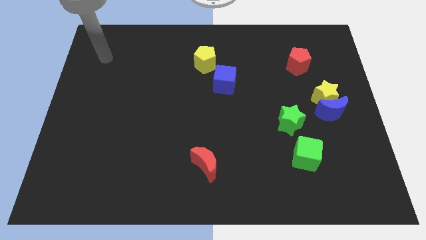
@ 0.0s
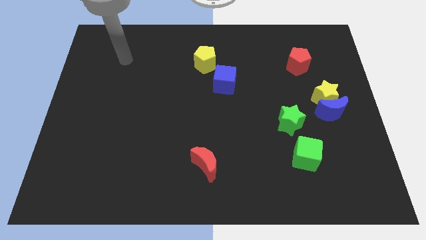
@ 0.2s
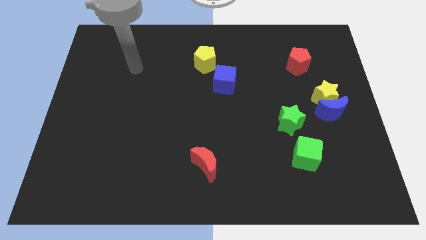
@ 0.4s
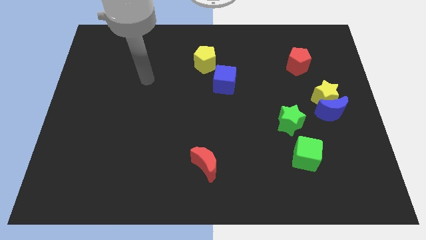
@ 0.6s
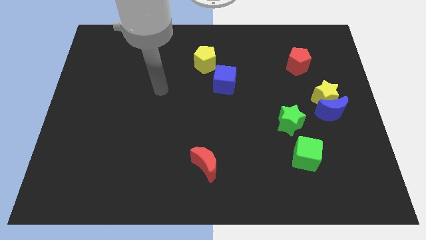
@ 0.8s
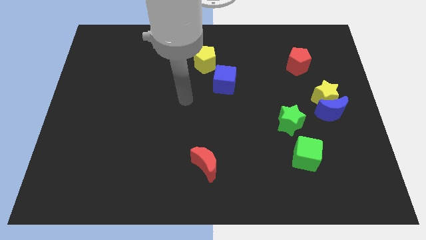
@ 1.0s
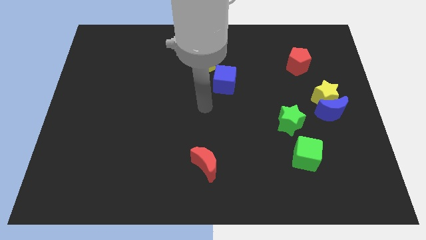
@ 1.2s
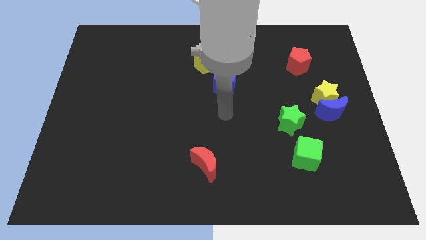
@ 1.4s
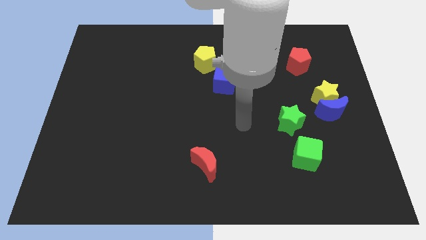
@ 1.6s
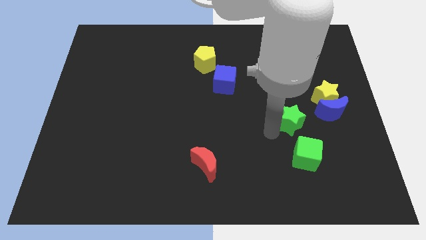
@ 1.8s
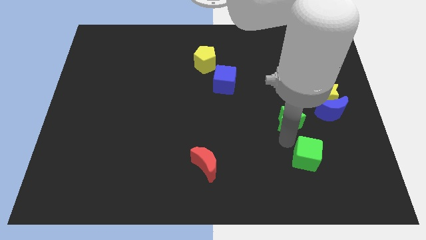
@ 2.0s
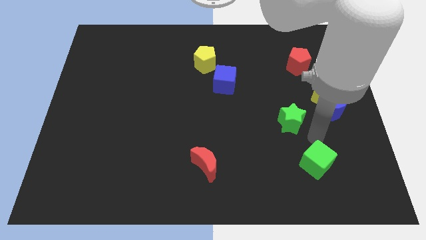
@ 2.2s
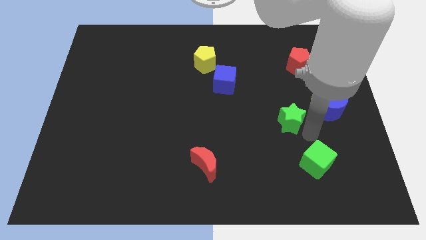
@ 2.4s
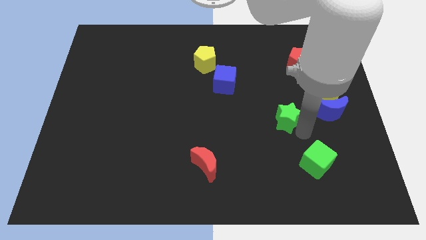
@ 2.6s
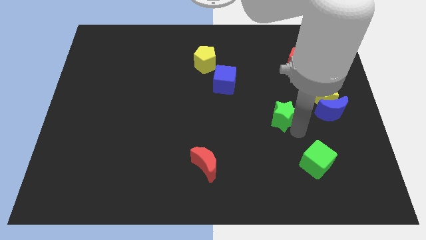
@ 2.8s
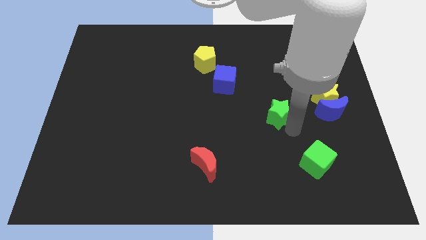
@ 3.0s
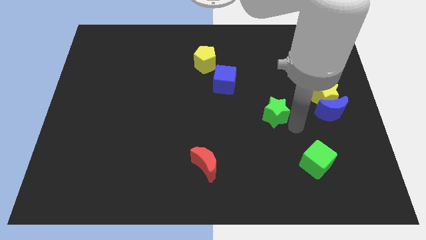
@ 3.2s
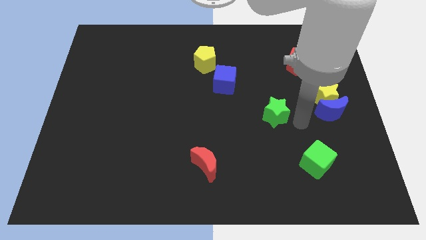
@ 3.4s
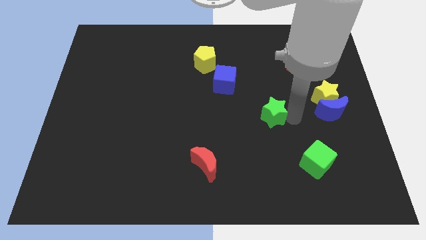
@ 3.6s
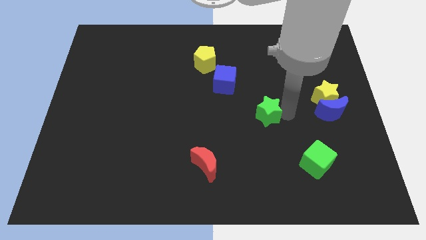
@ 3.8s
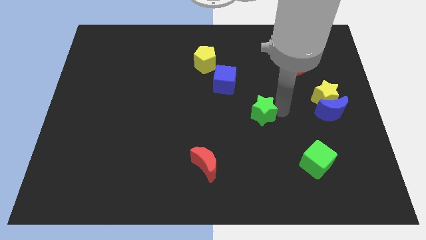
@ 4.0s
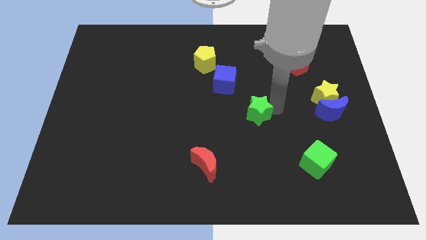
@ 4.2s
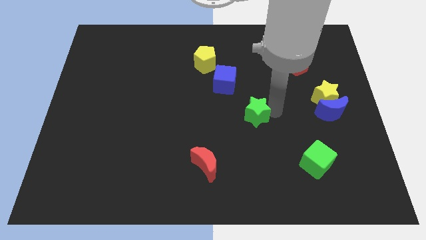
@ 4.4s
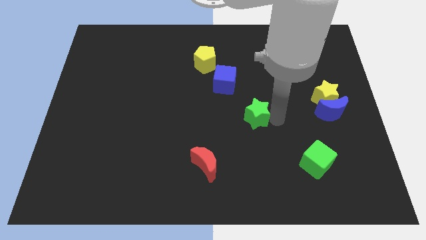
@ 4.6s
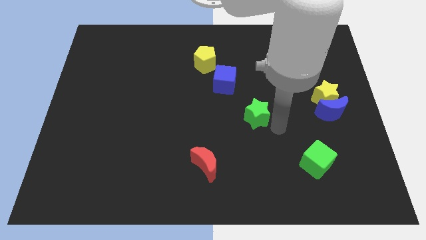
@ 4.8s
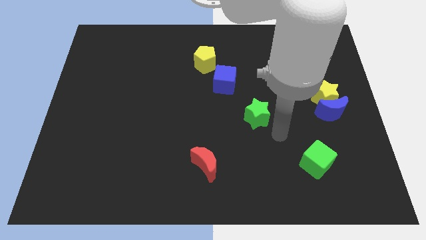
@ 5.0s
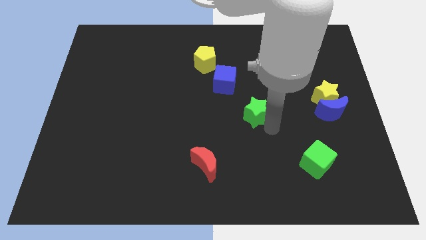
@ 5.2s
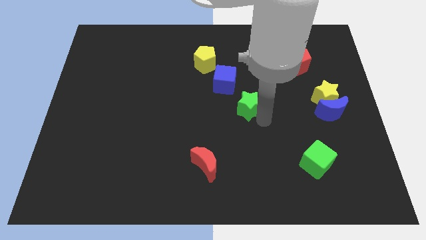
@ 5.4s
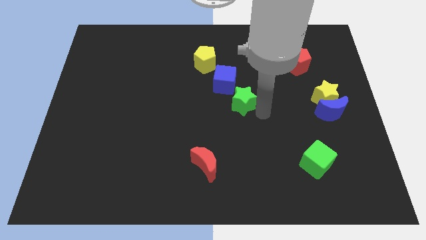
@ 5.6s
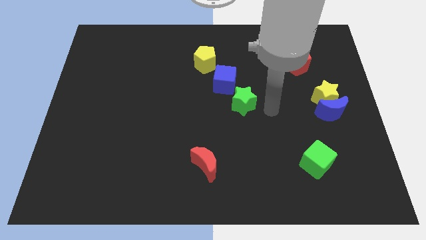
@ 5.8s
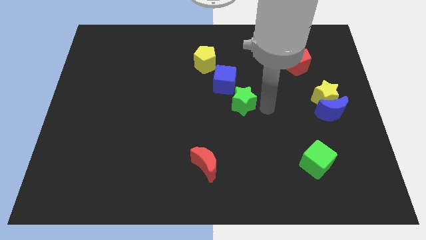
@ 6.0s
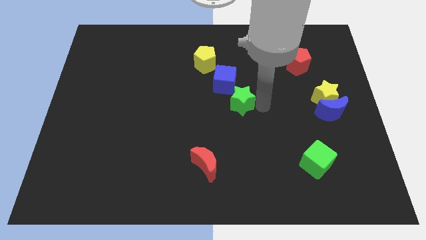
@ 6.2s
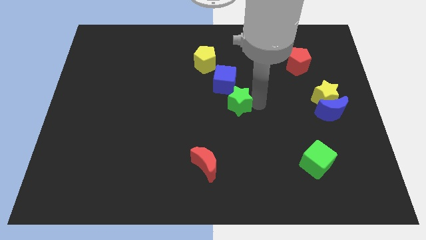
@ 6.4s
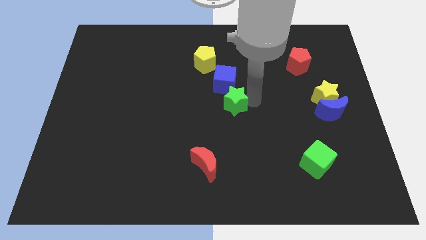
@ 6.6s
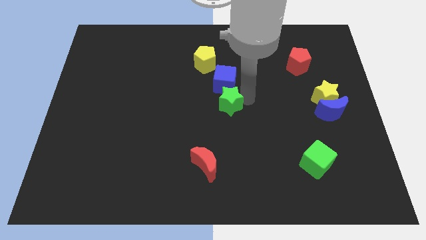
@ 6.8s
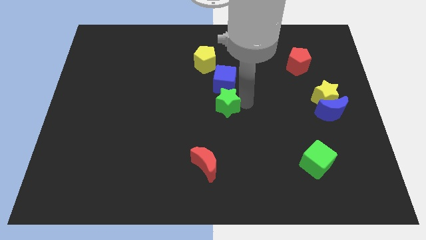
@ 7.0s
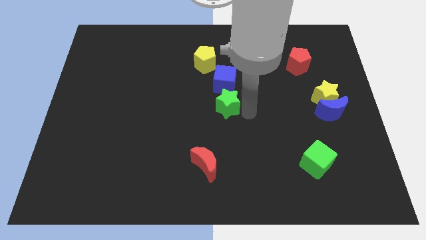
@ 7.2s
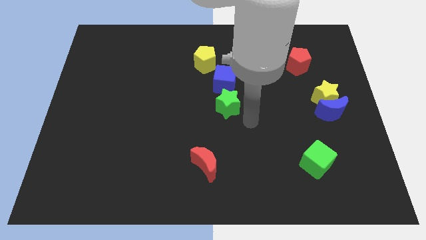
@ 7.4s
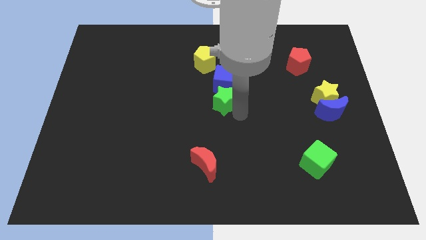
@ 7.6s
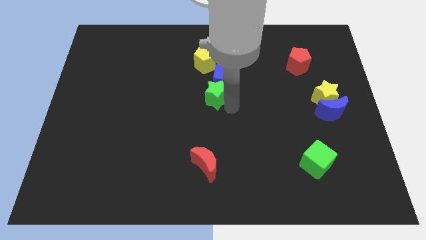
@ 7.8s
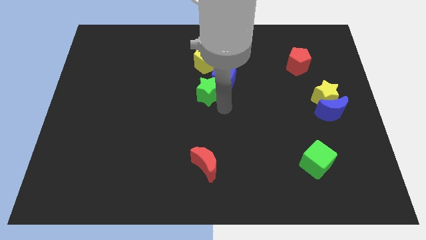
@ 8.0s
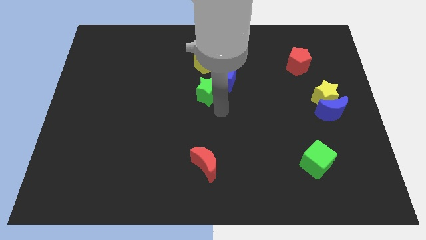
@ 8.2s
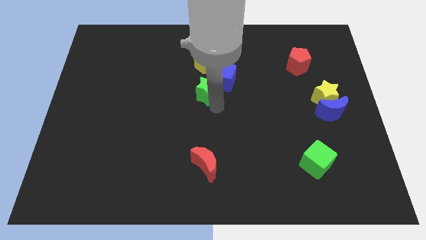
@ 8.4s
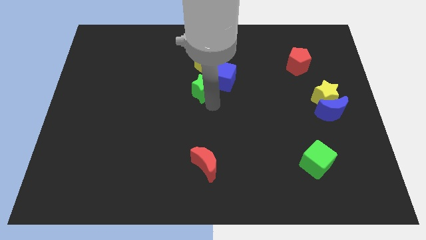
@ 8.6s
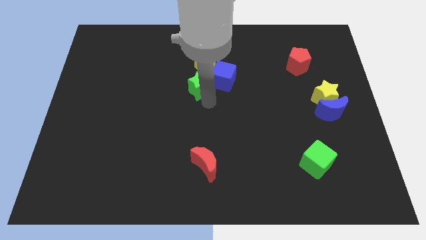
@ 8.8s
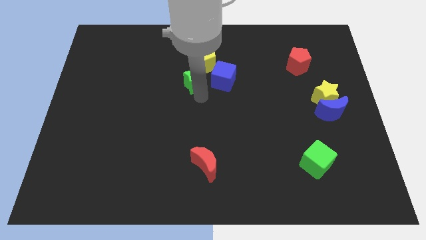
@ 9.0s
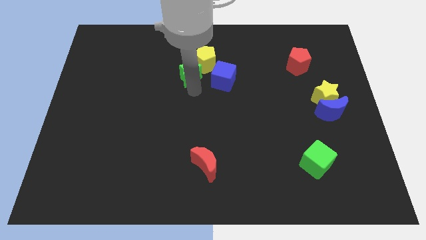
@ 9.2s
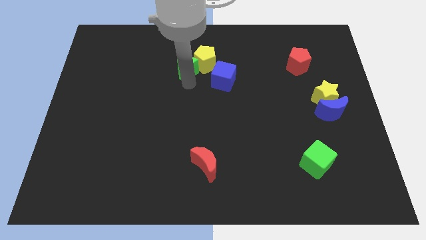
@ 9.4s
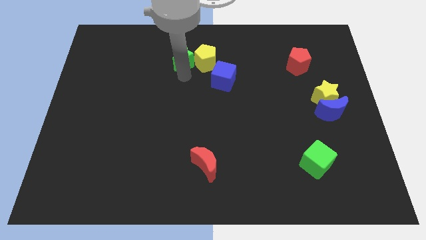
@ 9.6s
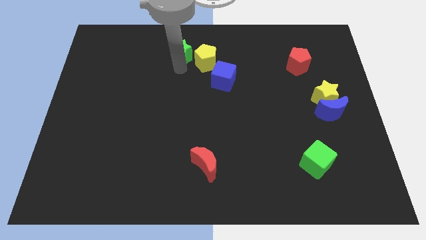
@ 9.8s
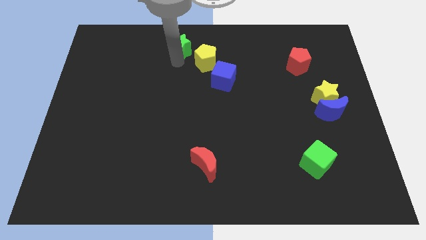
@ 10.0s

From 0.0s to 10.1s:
push the green star to the top side

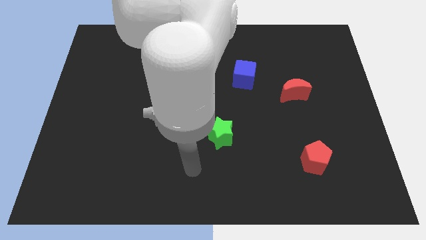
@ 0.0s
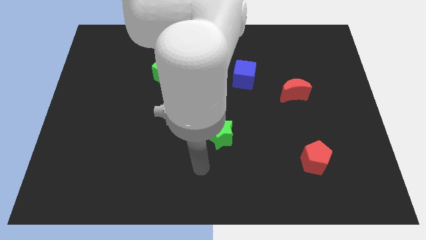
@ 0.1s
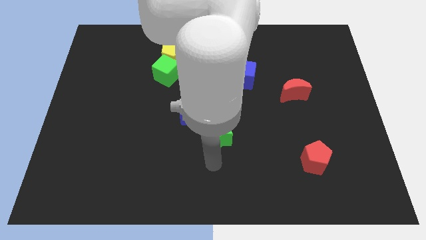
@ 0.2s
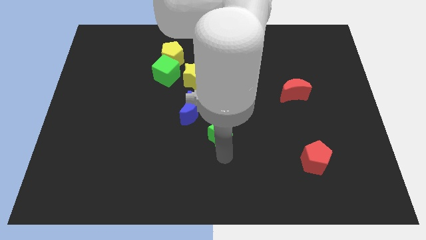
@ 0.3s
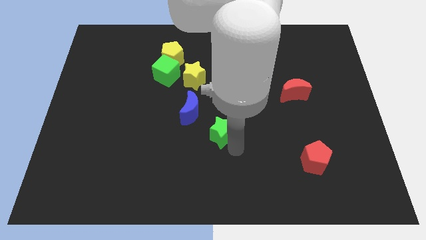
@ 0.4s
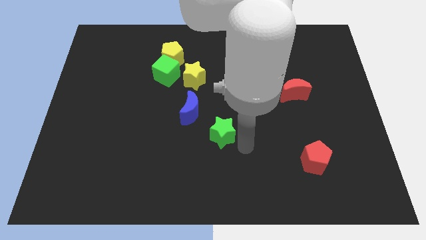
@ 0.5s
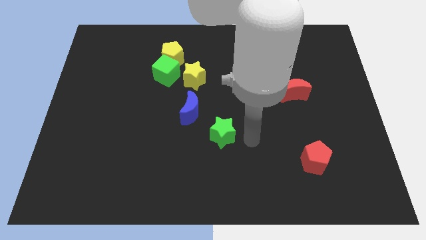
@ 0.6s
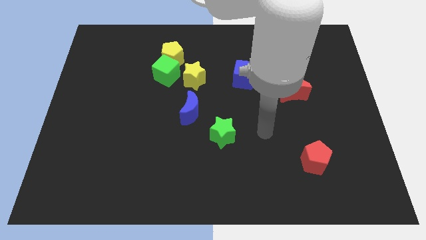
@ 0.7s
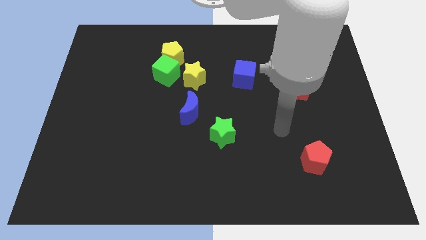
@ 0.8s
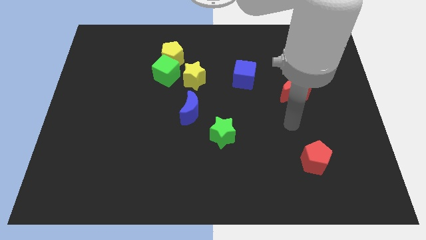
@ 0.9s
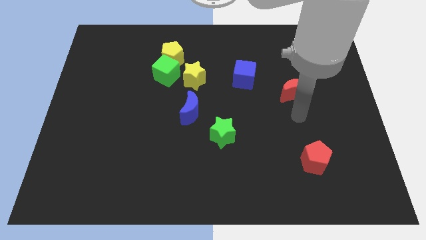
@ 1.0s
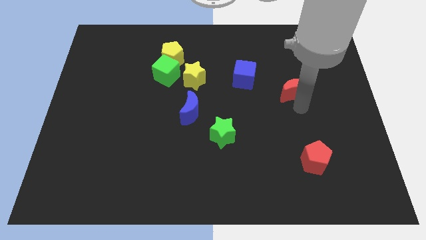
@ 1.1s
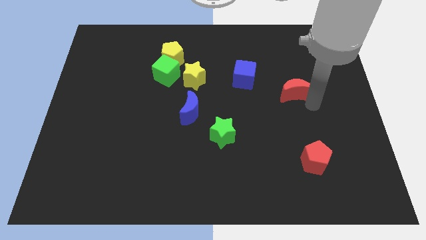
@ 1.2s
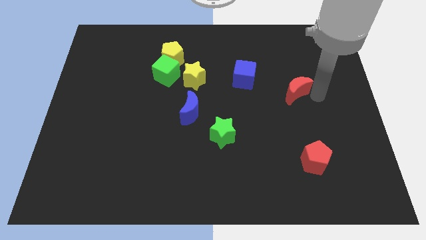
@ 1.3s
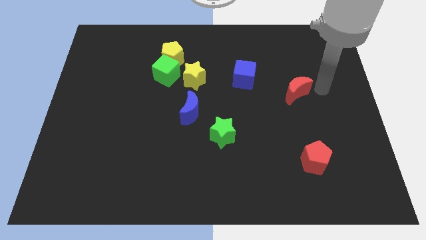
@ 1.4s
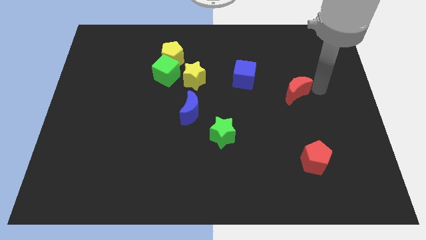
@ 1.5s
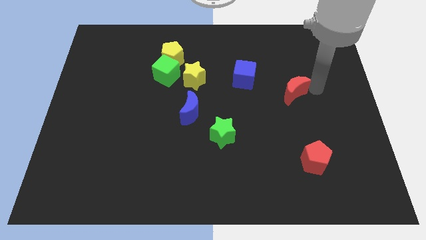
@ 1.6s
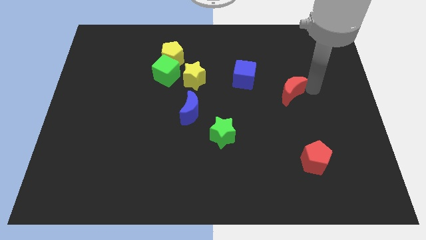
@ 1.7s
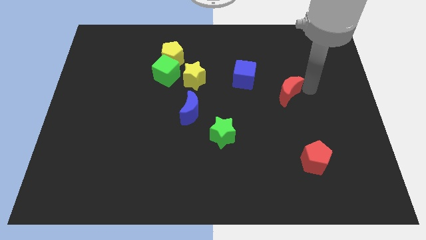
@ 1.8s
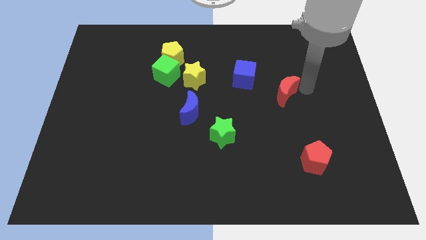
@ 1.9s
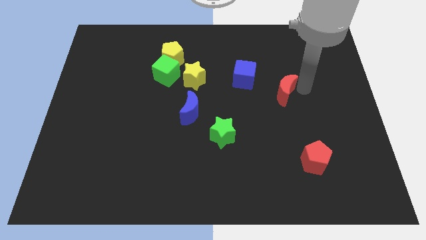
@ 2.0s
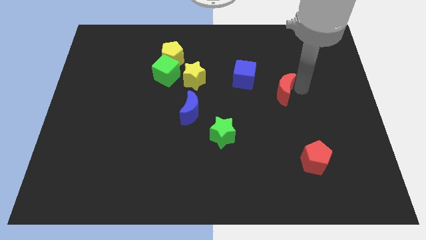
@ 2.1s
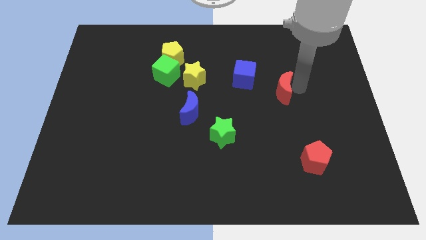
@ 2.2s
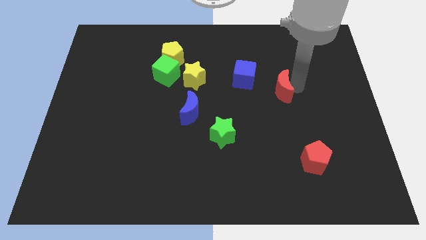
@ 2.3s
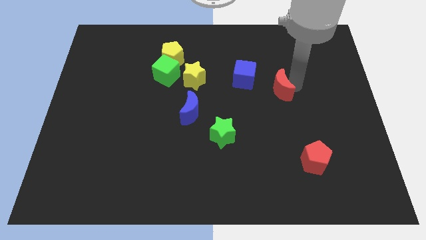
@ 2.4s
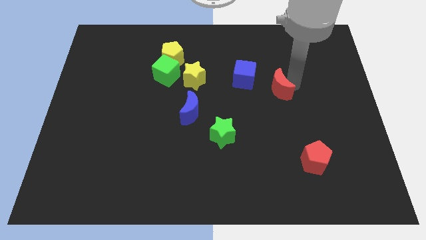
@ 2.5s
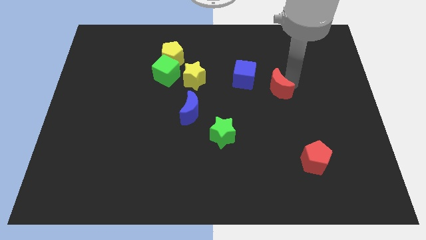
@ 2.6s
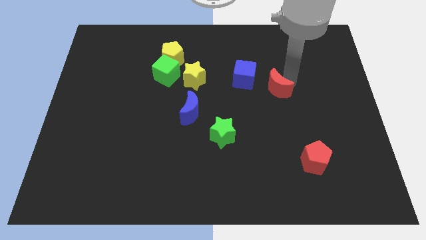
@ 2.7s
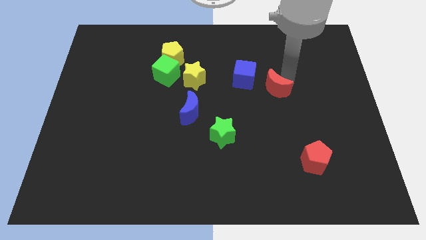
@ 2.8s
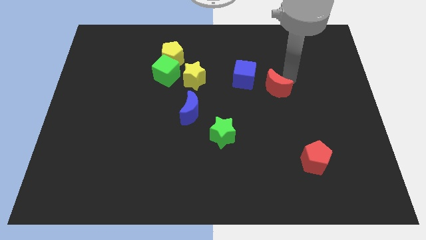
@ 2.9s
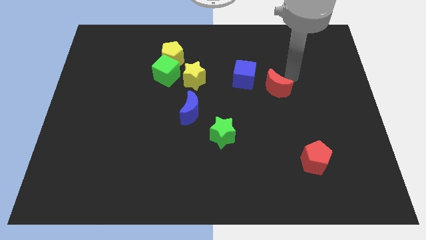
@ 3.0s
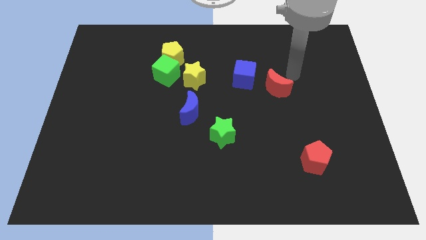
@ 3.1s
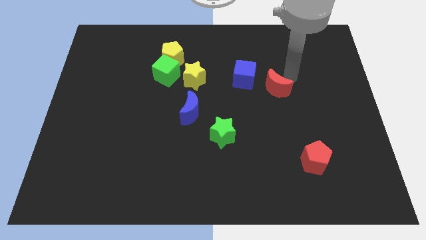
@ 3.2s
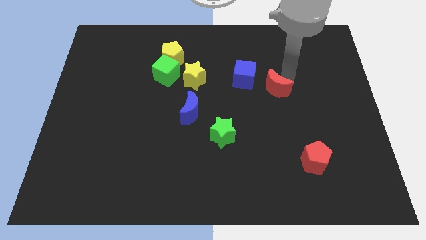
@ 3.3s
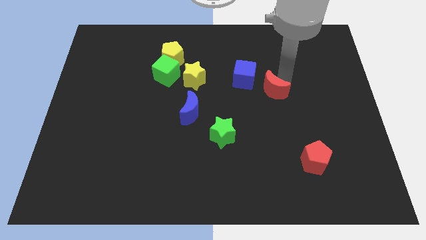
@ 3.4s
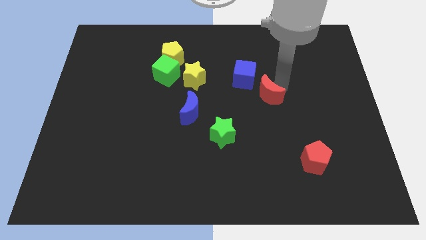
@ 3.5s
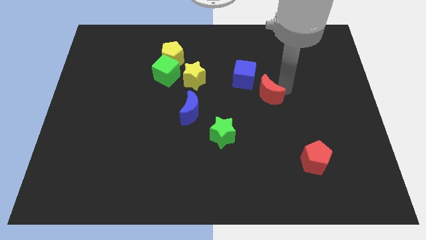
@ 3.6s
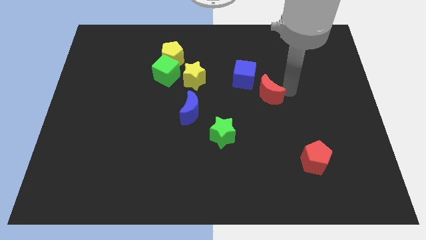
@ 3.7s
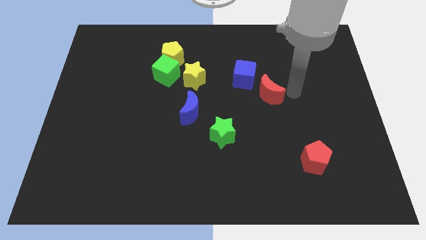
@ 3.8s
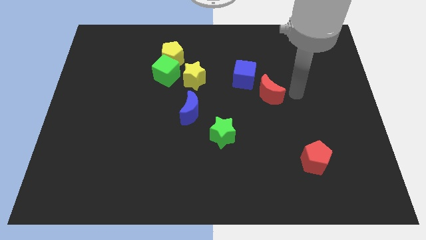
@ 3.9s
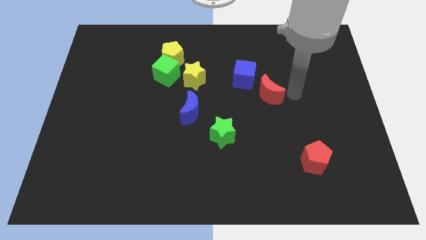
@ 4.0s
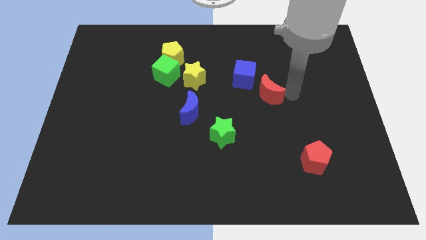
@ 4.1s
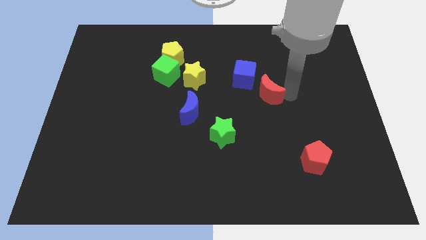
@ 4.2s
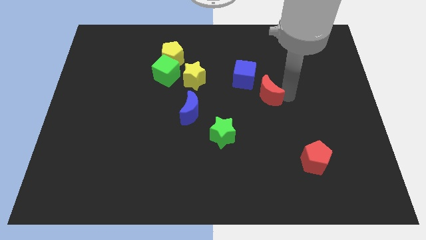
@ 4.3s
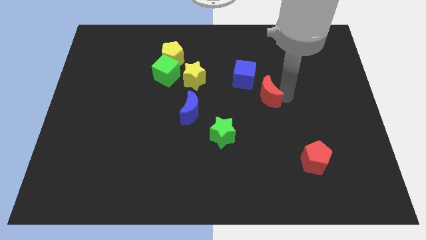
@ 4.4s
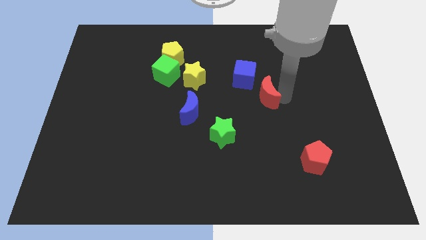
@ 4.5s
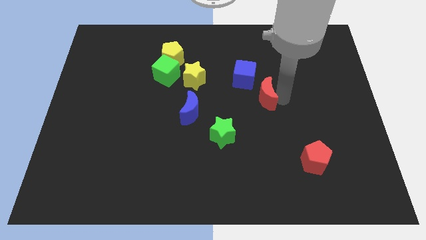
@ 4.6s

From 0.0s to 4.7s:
put the red moon to the center
